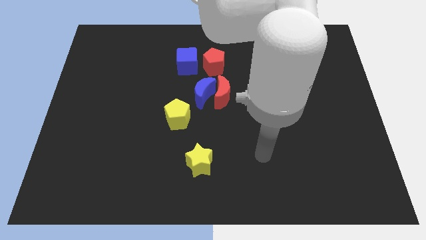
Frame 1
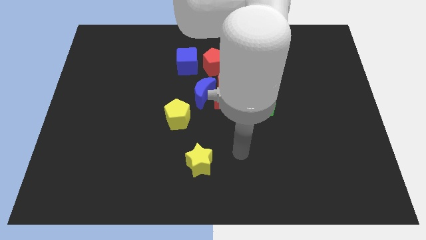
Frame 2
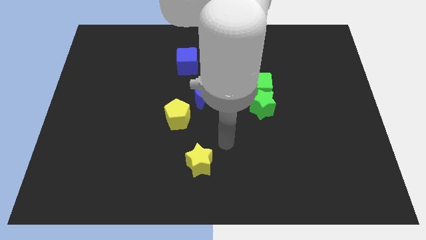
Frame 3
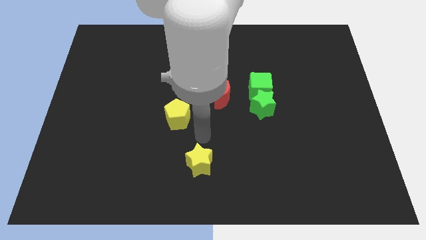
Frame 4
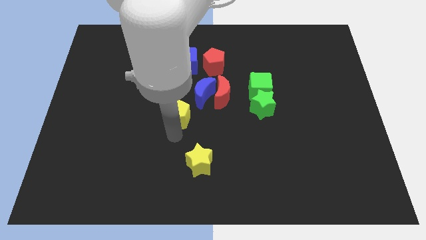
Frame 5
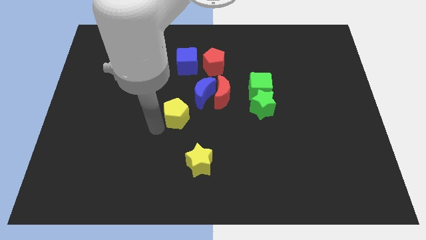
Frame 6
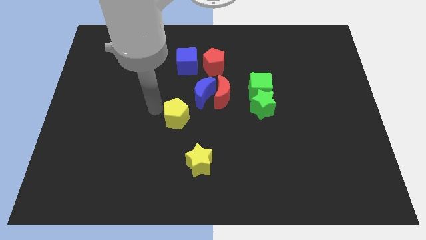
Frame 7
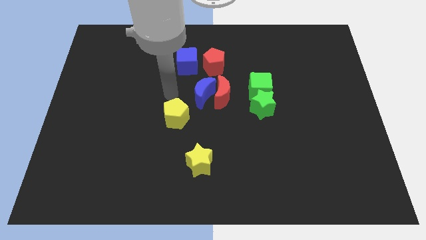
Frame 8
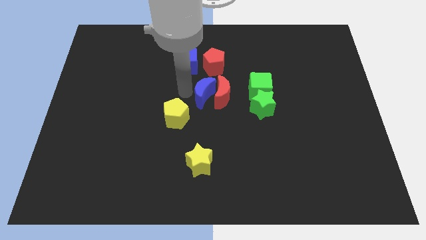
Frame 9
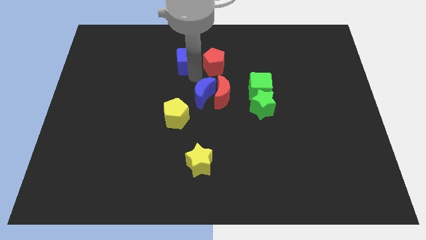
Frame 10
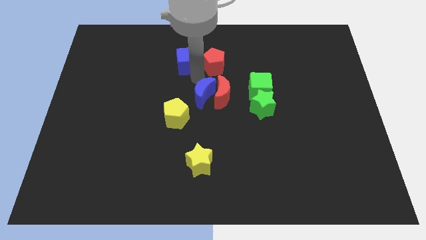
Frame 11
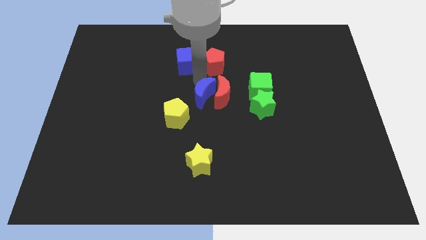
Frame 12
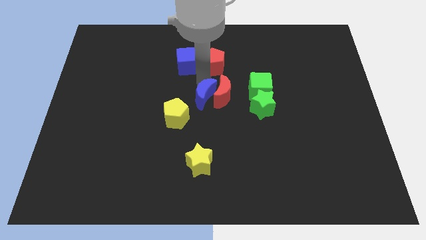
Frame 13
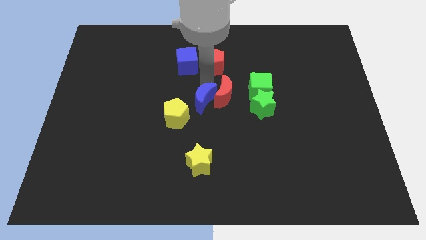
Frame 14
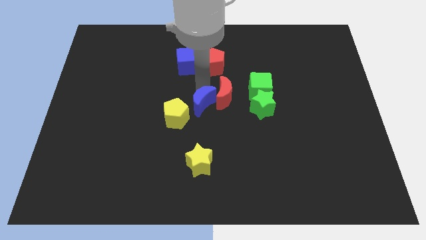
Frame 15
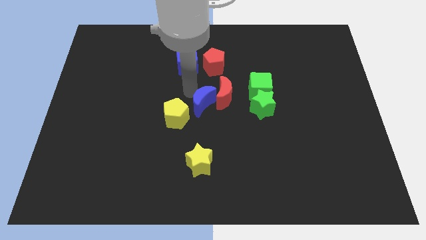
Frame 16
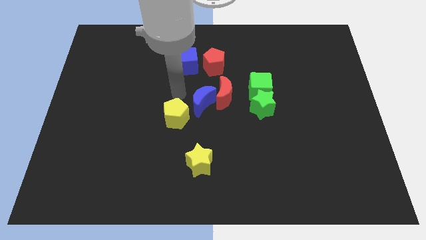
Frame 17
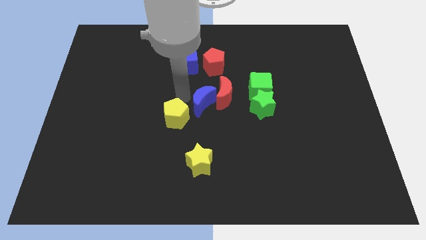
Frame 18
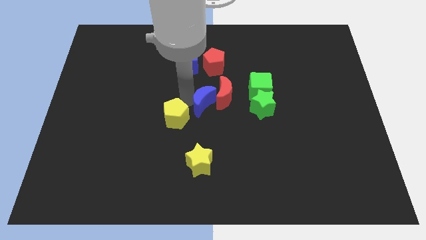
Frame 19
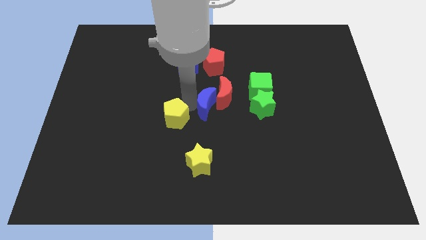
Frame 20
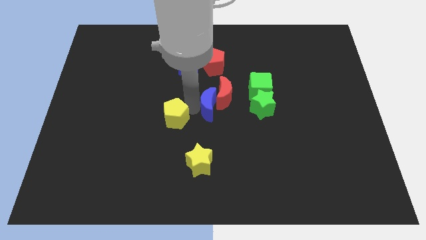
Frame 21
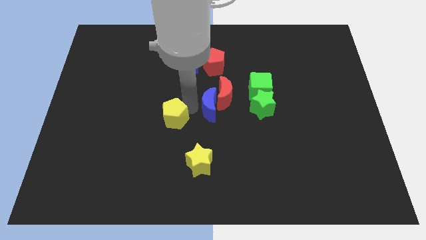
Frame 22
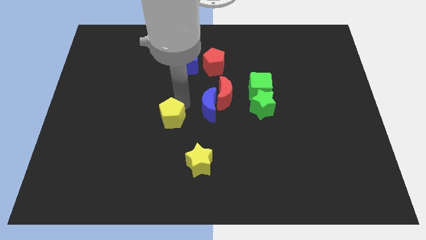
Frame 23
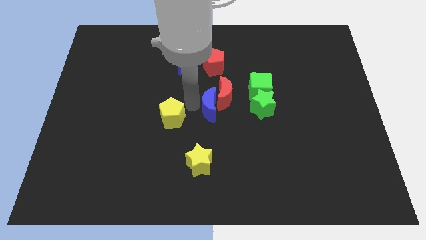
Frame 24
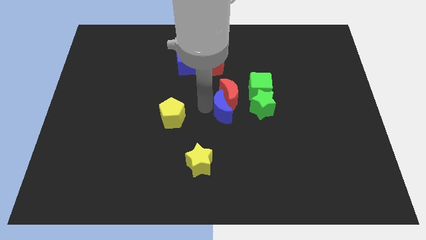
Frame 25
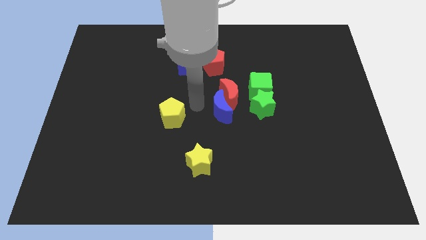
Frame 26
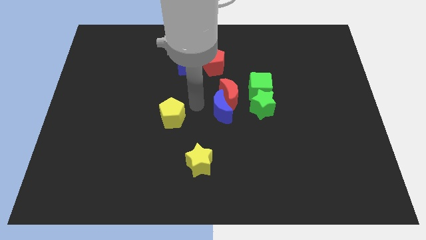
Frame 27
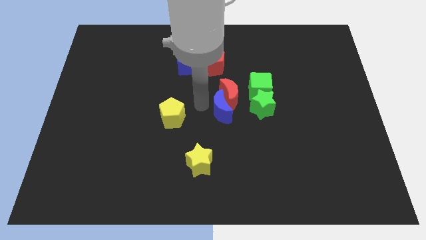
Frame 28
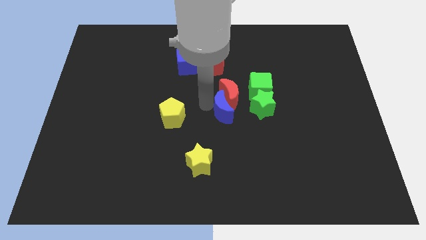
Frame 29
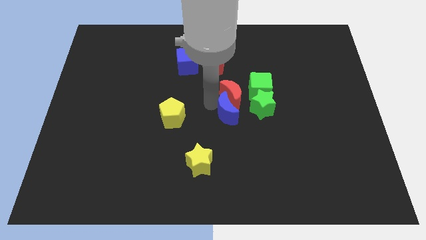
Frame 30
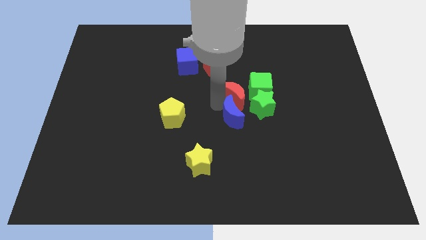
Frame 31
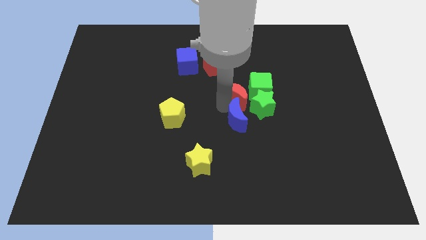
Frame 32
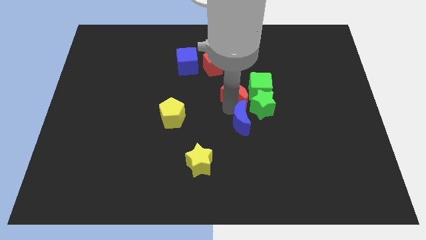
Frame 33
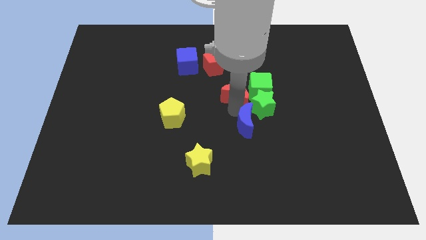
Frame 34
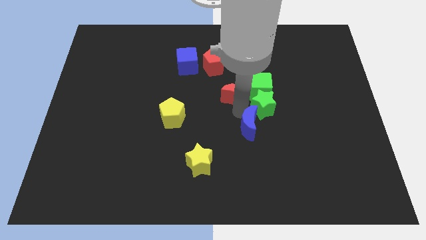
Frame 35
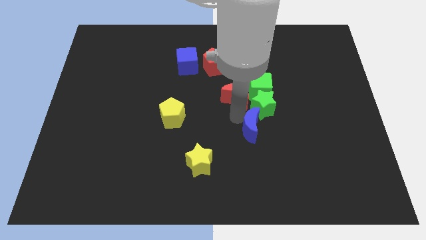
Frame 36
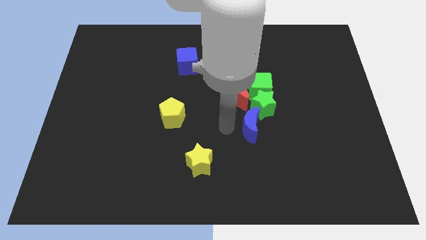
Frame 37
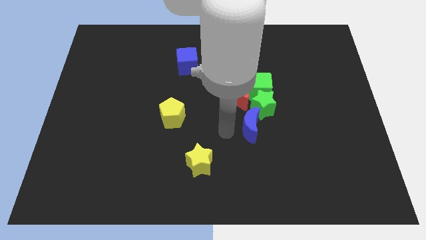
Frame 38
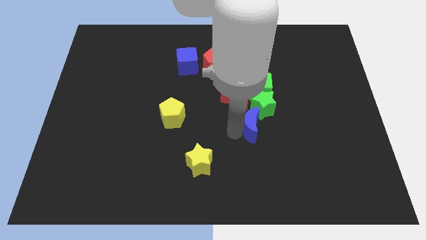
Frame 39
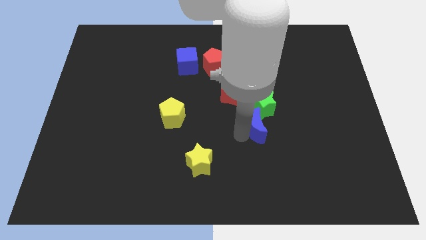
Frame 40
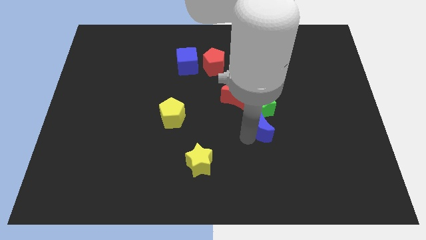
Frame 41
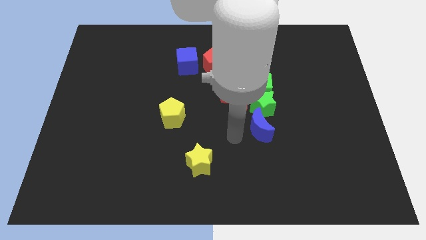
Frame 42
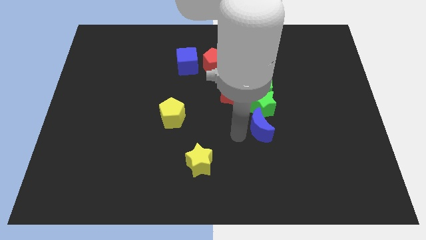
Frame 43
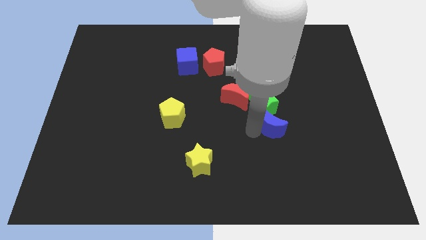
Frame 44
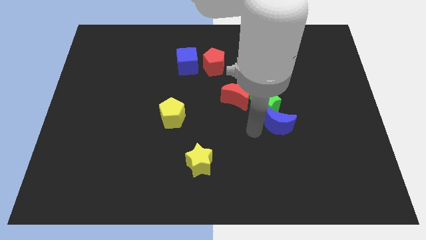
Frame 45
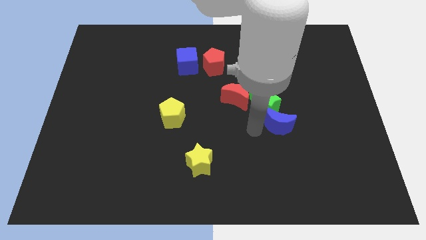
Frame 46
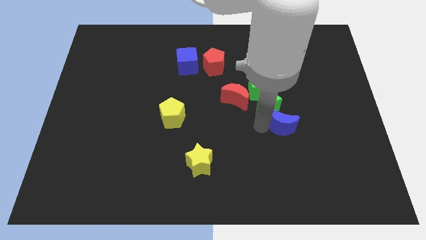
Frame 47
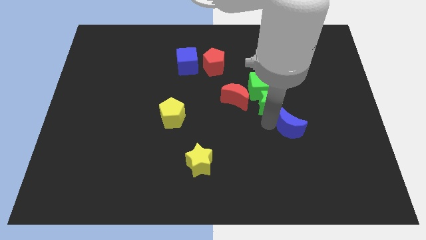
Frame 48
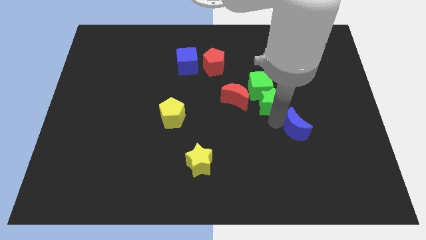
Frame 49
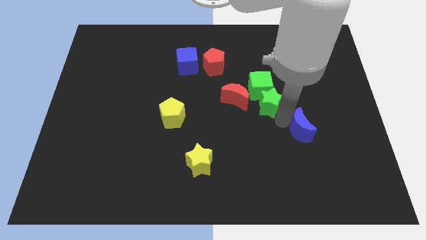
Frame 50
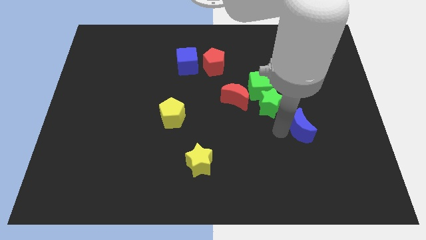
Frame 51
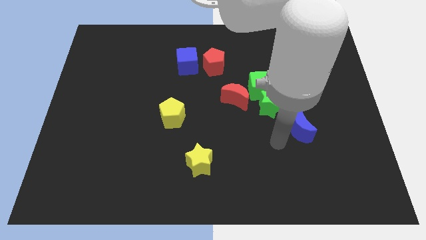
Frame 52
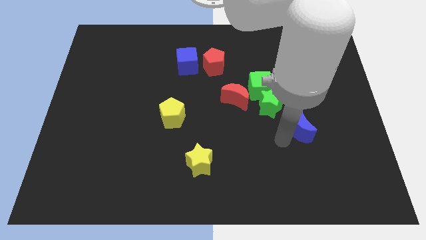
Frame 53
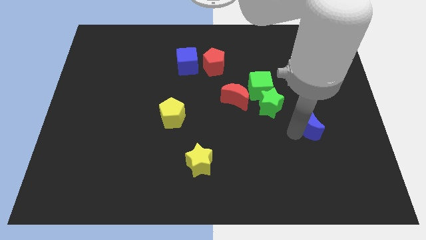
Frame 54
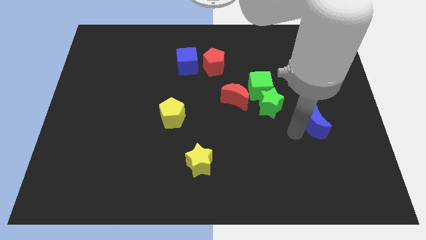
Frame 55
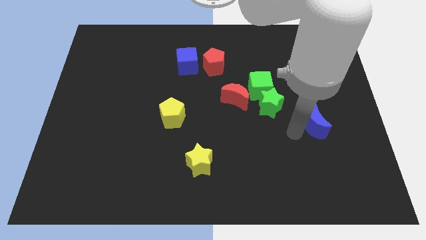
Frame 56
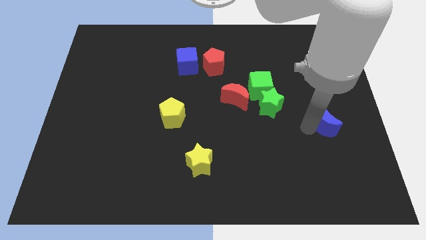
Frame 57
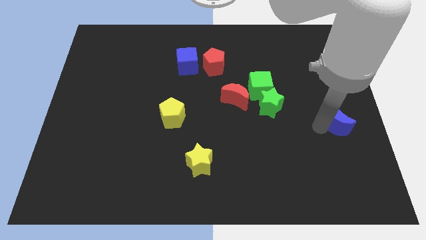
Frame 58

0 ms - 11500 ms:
push the blue moon to the center right

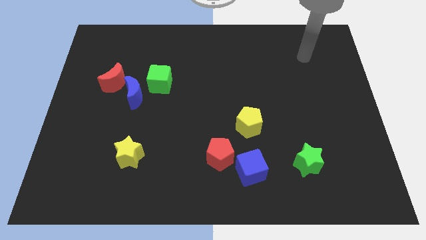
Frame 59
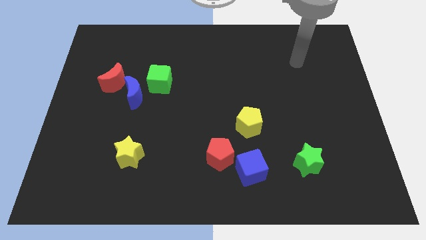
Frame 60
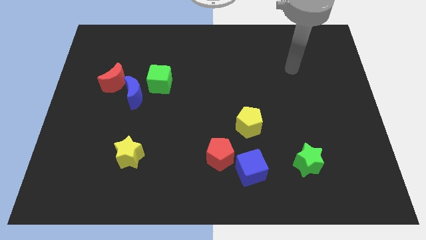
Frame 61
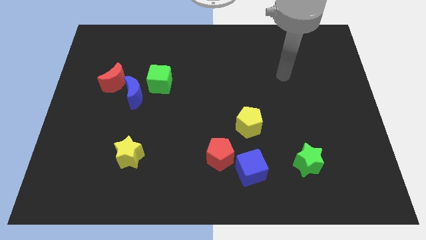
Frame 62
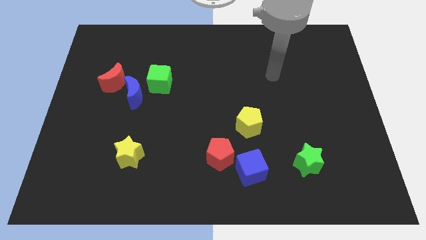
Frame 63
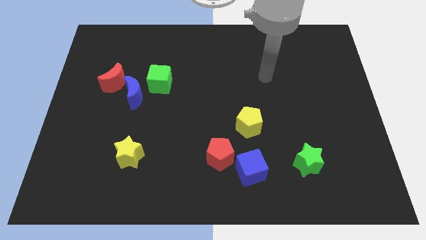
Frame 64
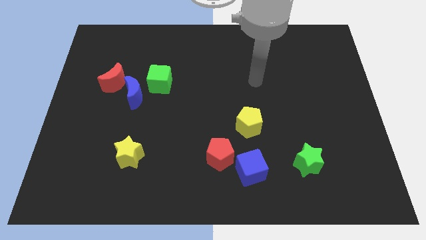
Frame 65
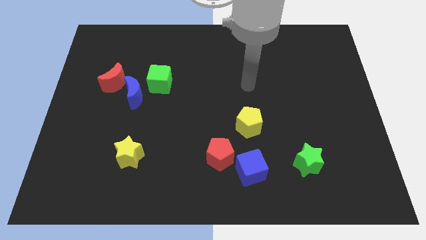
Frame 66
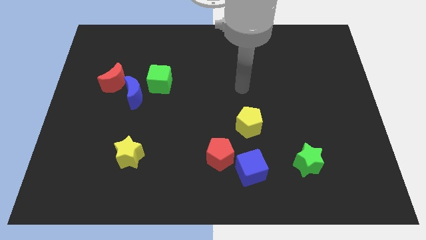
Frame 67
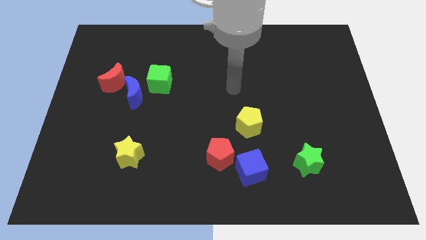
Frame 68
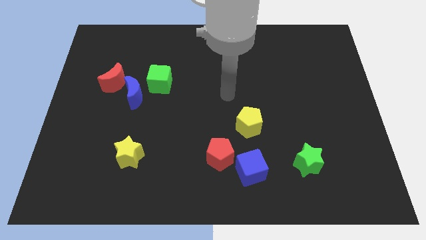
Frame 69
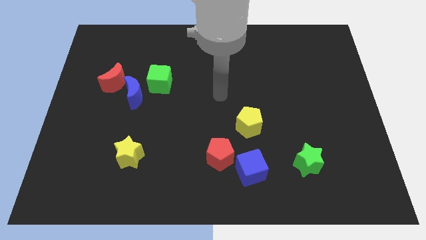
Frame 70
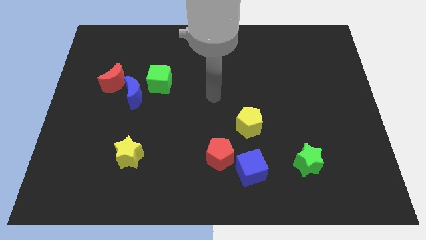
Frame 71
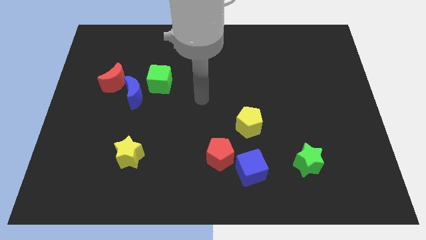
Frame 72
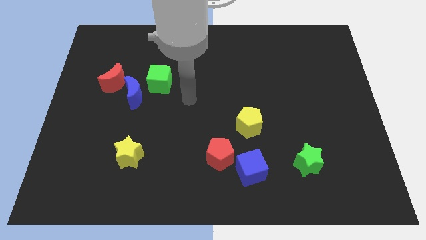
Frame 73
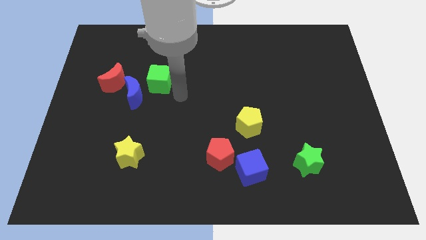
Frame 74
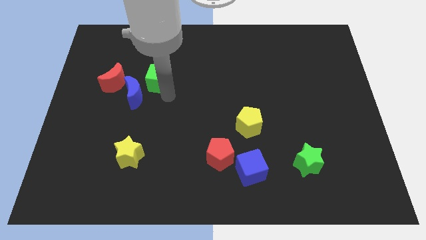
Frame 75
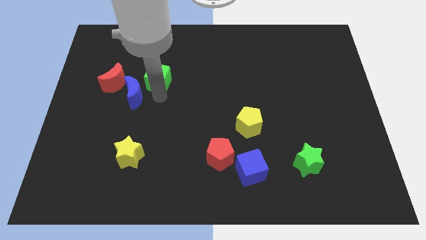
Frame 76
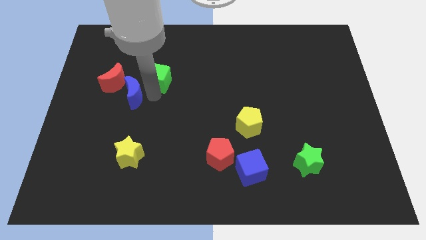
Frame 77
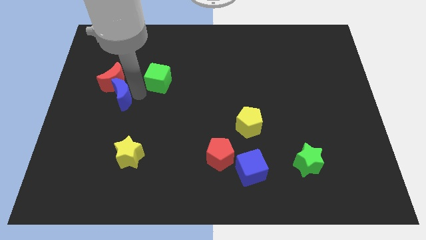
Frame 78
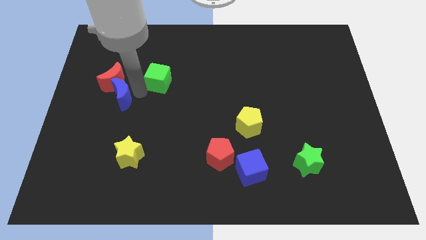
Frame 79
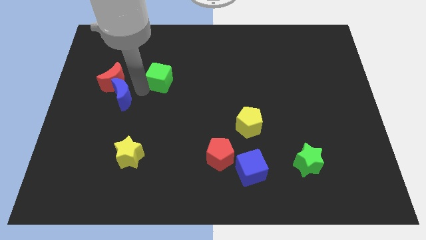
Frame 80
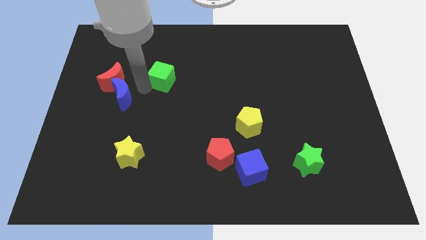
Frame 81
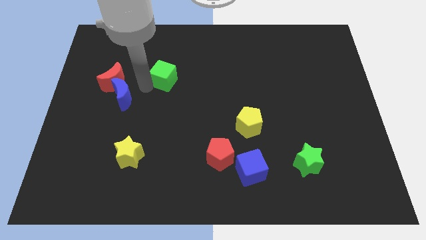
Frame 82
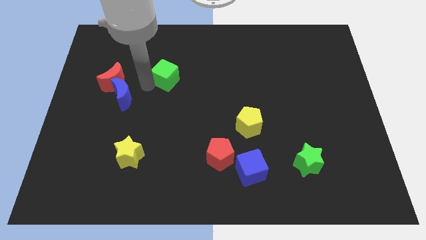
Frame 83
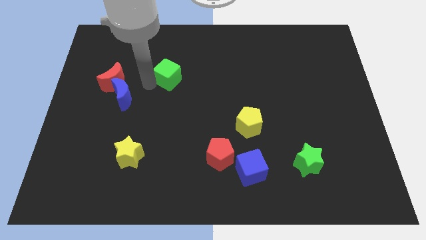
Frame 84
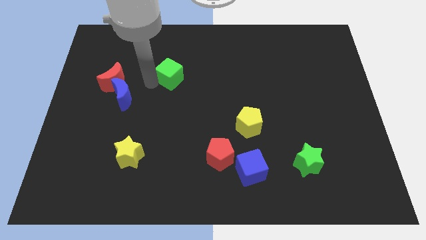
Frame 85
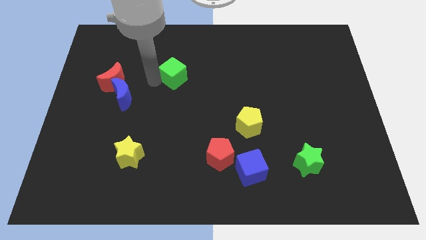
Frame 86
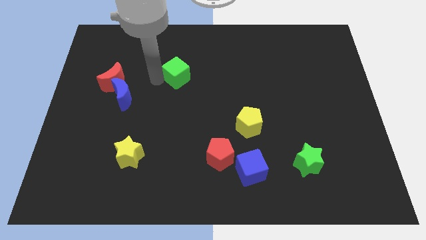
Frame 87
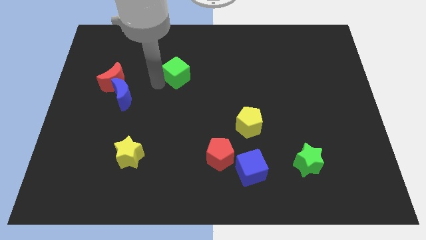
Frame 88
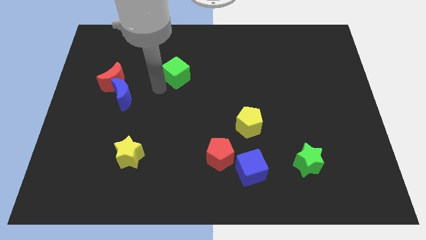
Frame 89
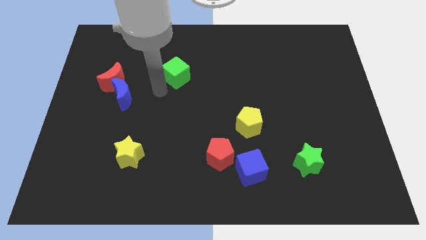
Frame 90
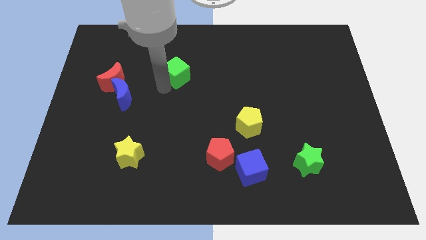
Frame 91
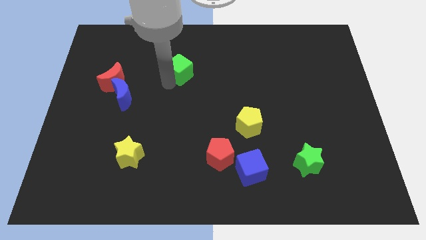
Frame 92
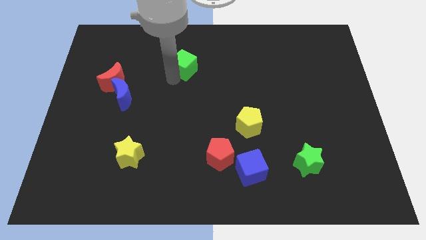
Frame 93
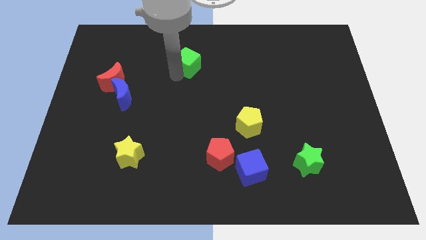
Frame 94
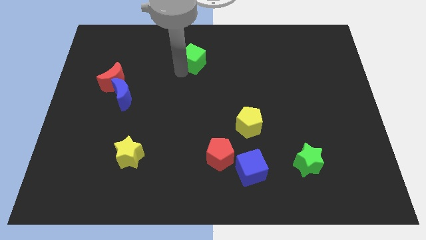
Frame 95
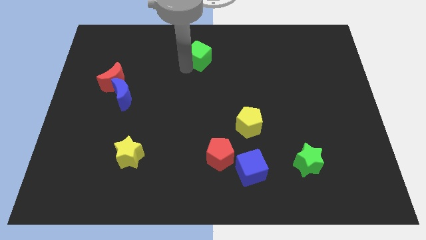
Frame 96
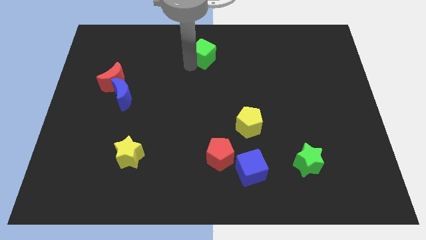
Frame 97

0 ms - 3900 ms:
put the green cube to the top side
